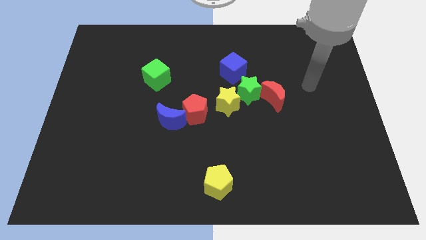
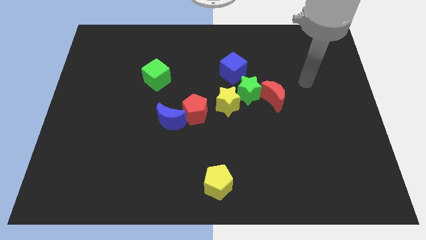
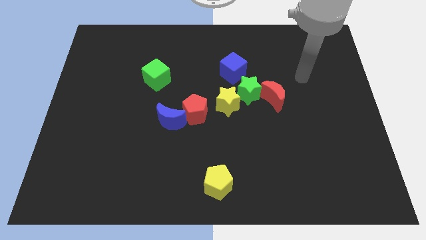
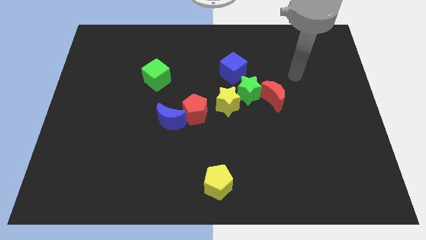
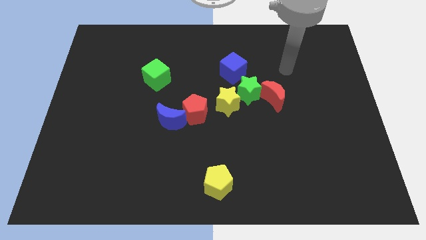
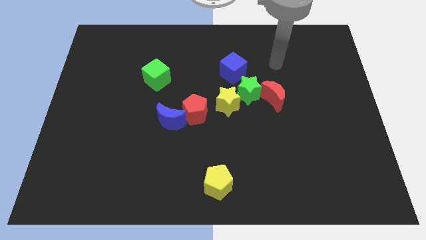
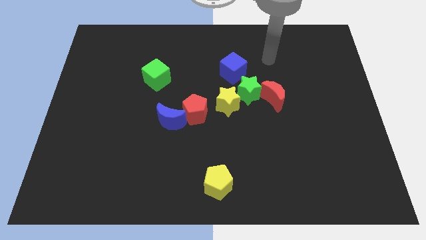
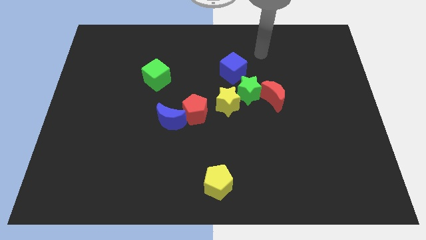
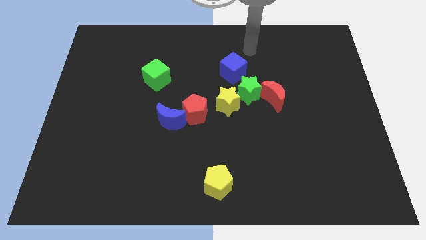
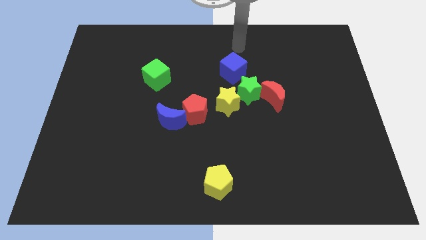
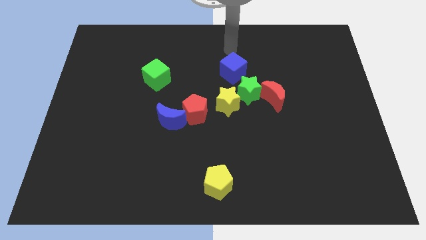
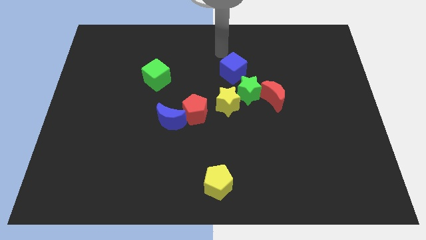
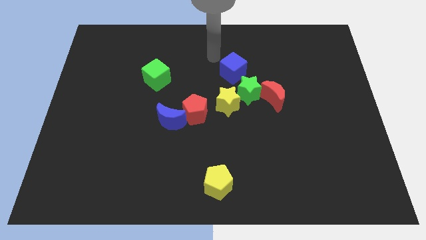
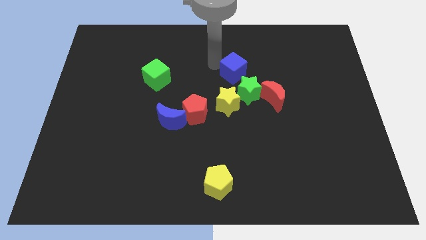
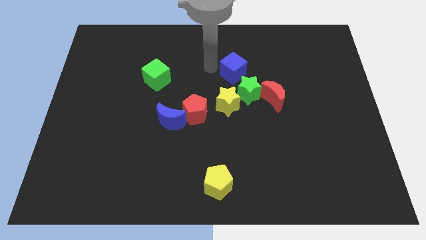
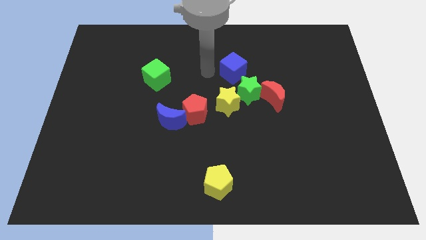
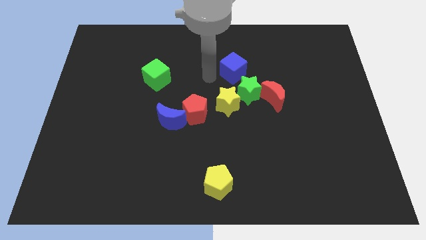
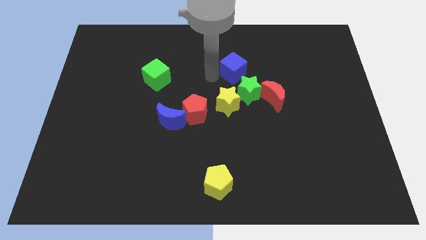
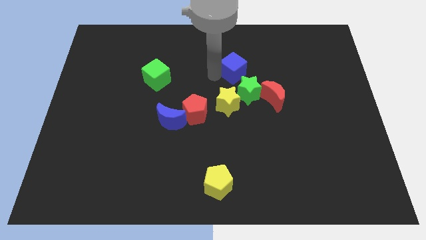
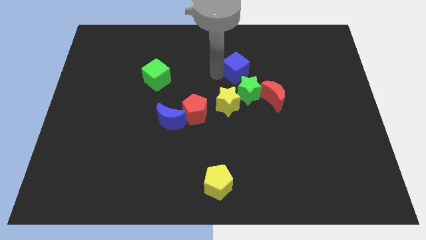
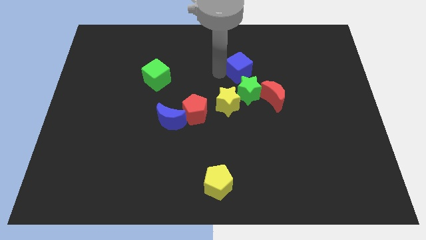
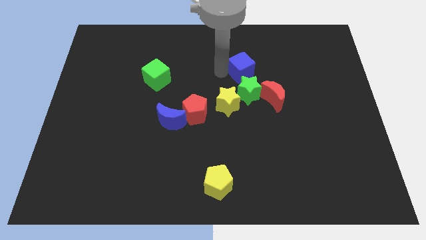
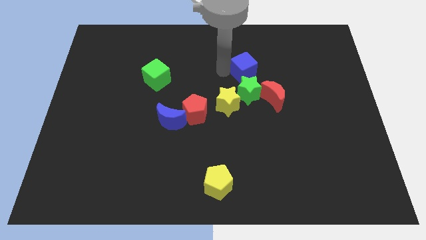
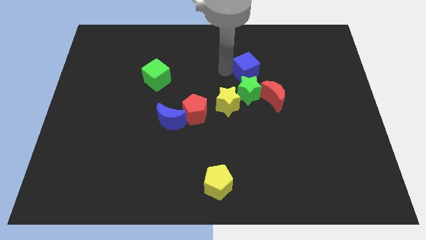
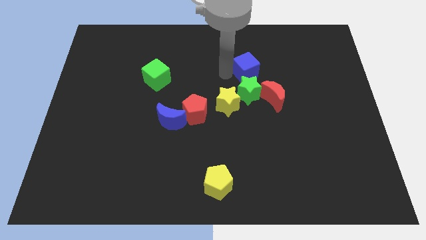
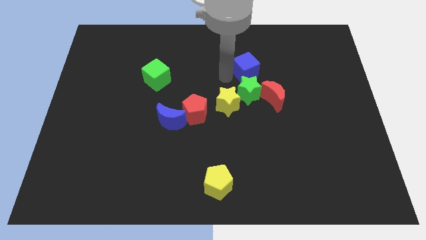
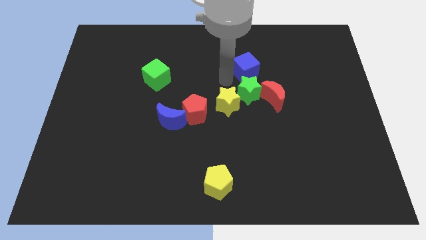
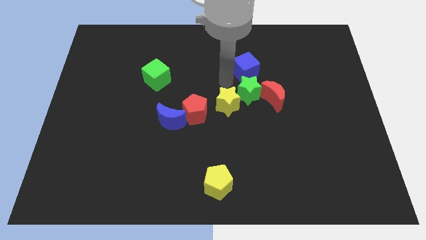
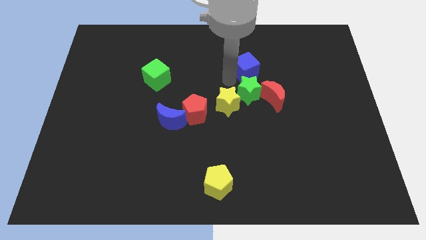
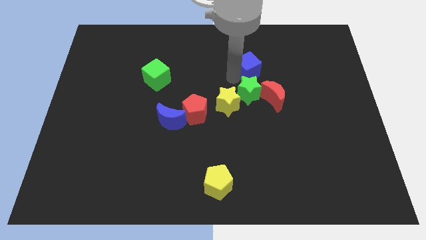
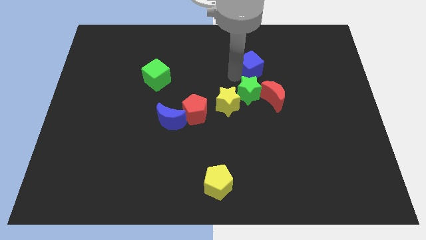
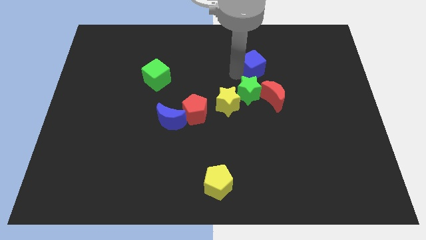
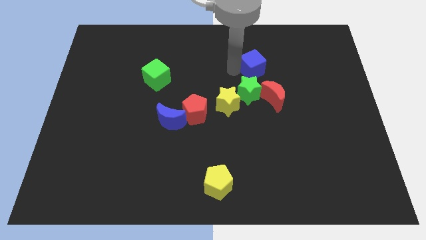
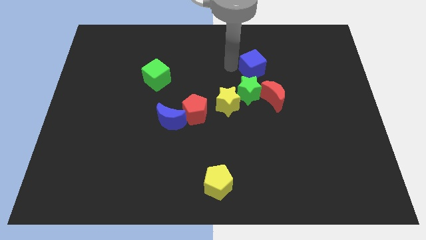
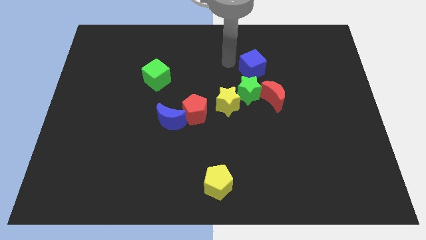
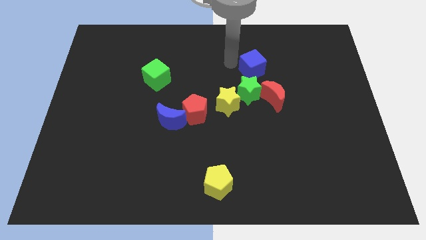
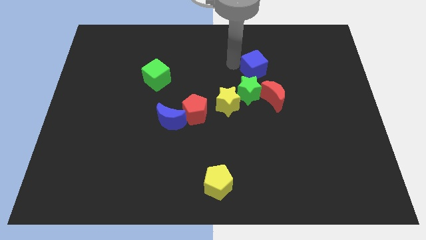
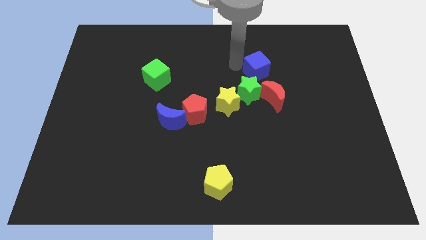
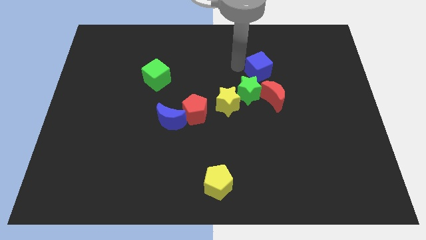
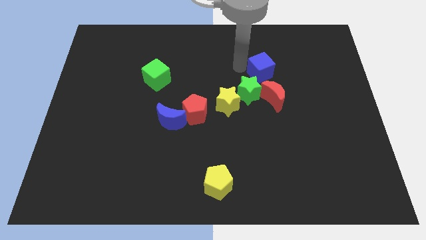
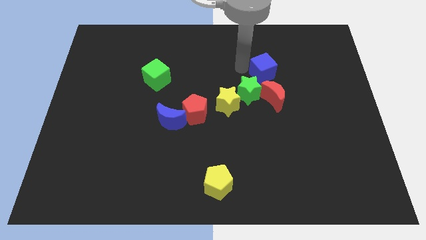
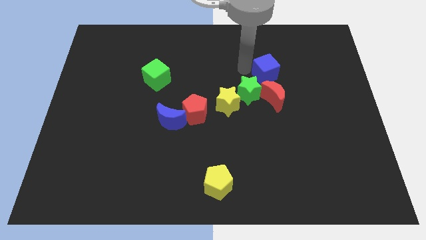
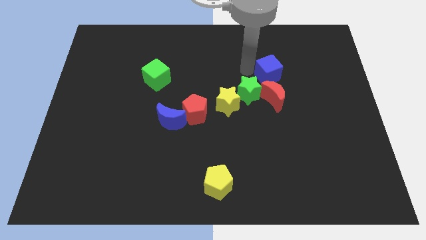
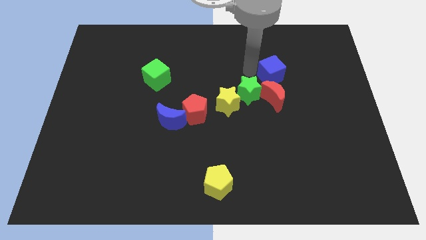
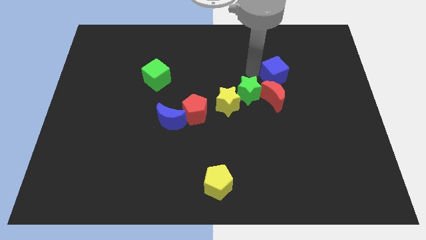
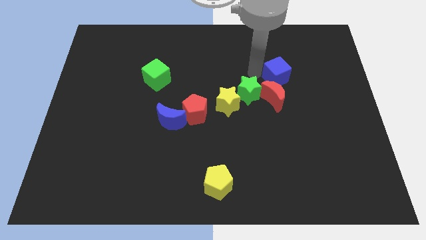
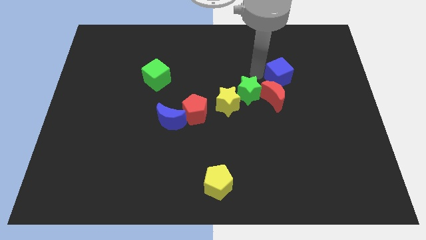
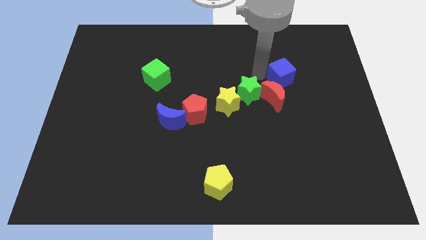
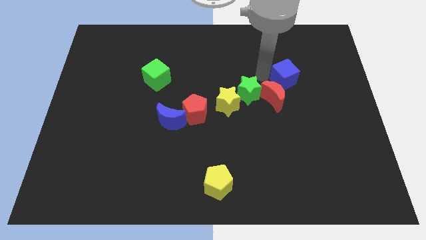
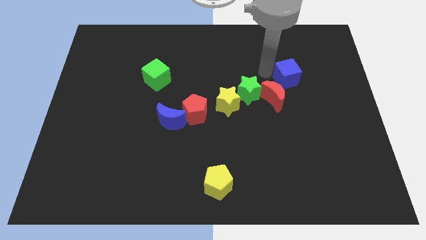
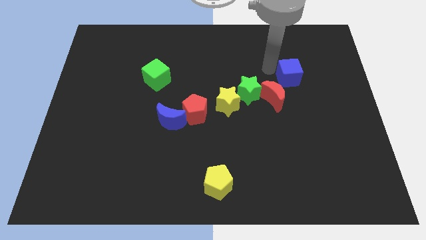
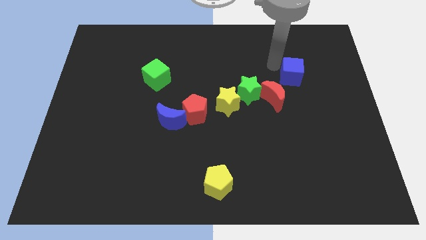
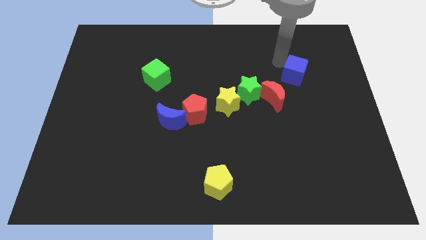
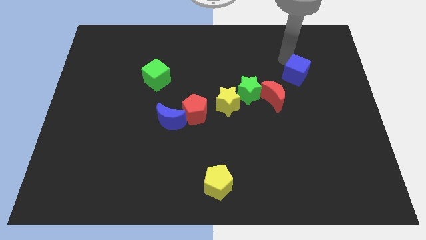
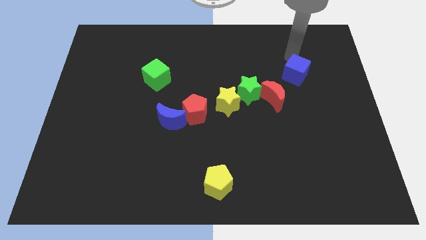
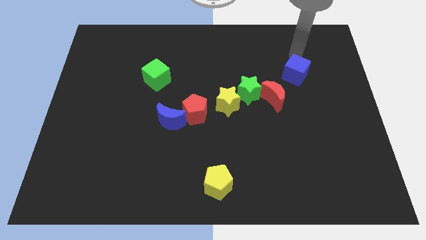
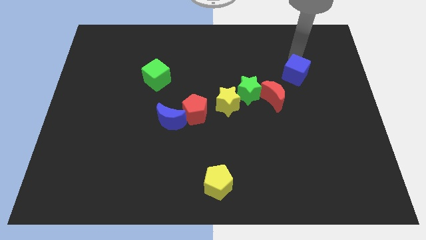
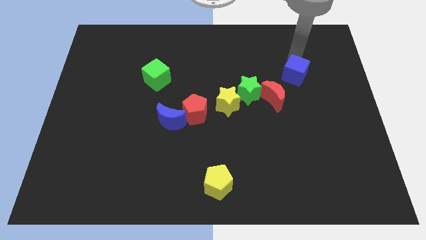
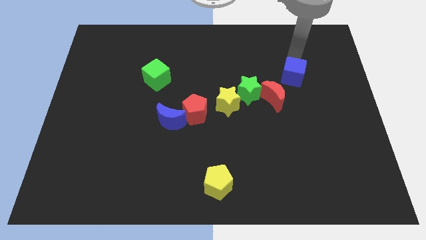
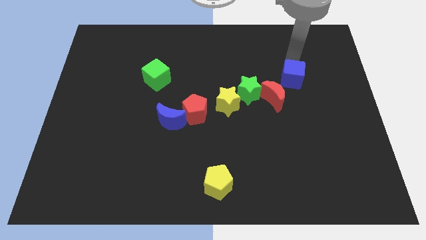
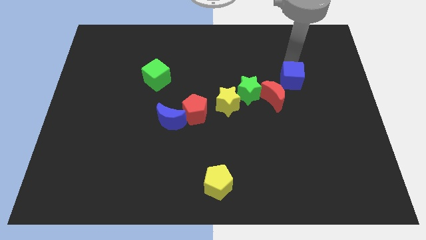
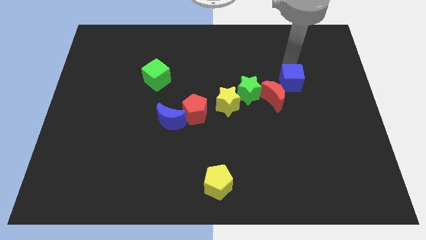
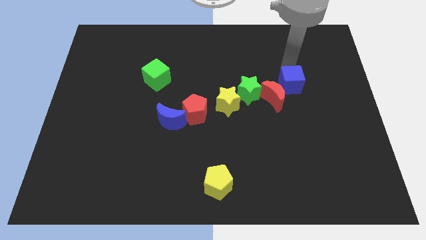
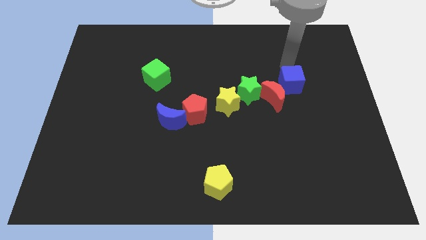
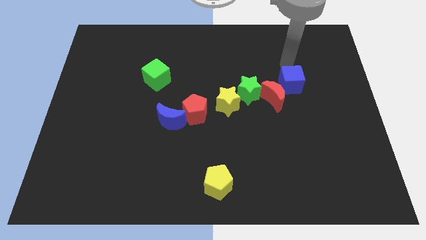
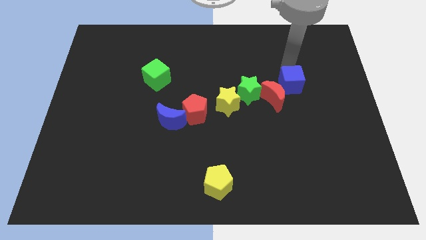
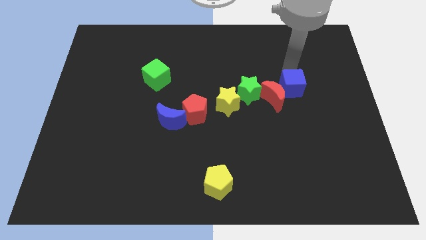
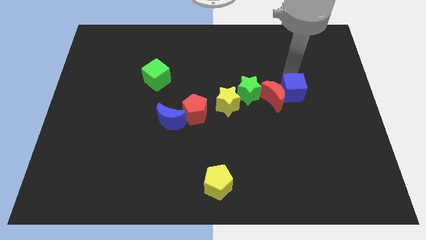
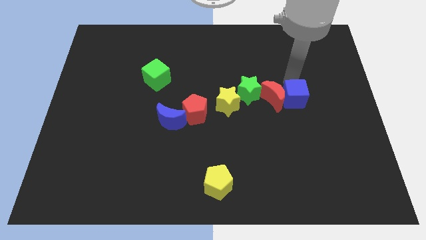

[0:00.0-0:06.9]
push the blue cube to the bottom right of the red moon
